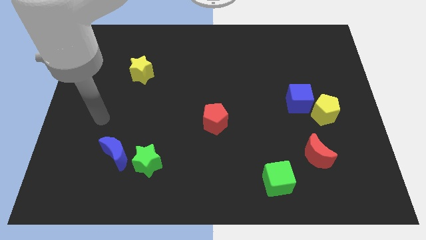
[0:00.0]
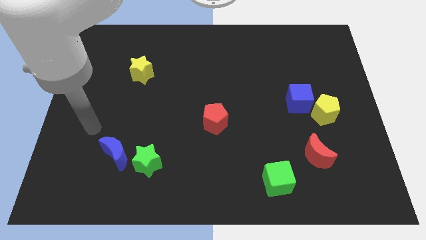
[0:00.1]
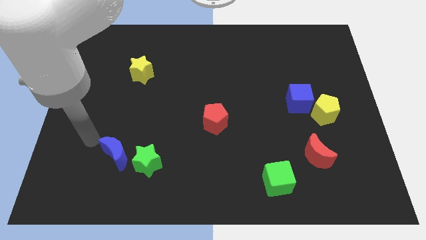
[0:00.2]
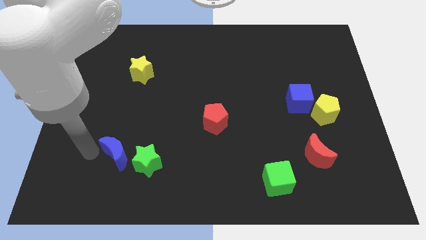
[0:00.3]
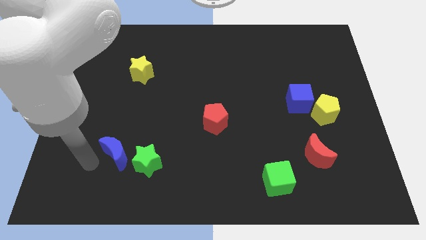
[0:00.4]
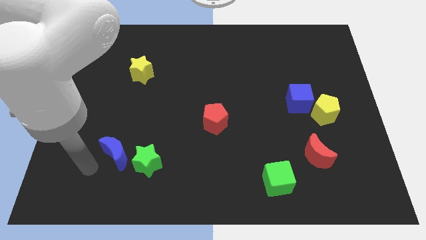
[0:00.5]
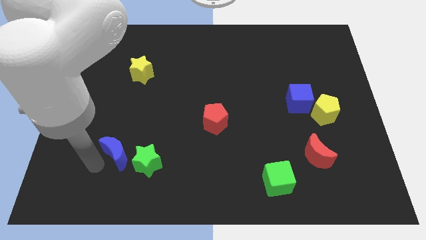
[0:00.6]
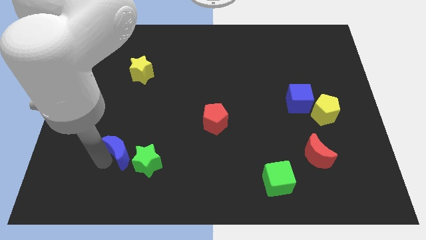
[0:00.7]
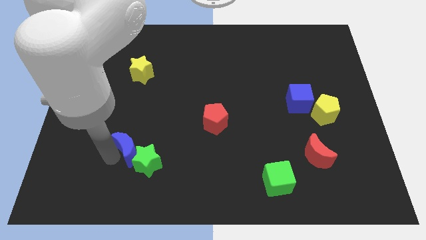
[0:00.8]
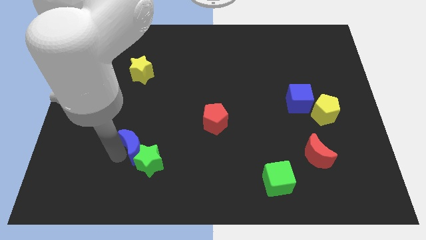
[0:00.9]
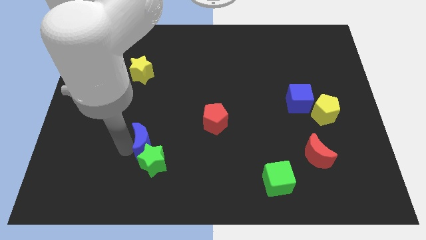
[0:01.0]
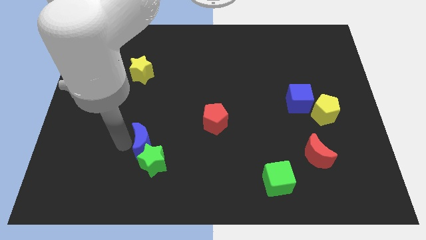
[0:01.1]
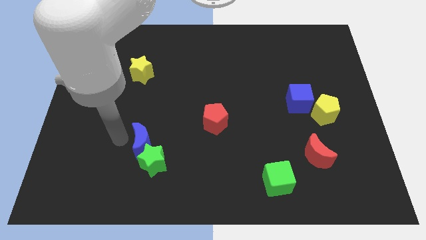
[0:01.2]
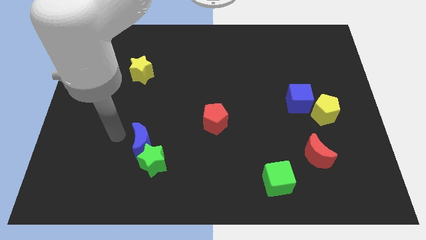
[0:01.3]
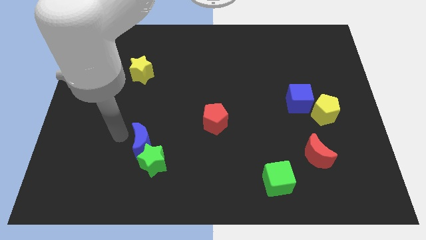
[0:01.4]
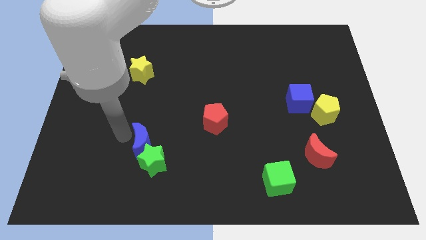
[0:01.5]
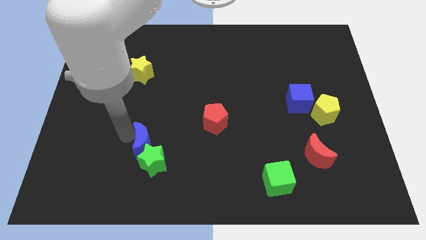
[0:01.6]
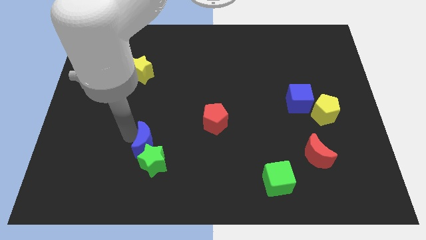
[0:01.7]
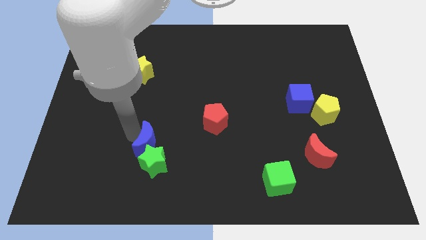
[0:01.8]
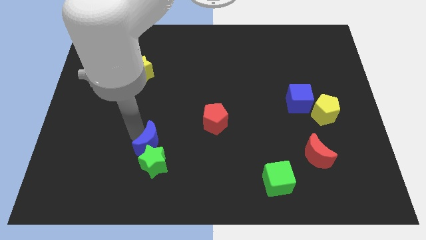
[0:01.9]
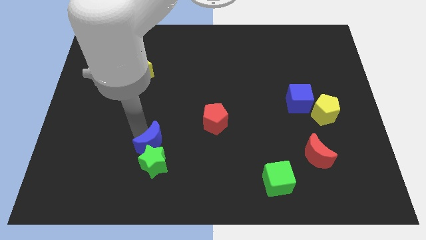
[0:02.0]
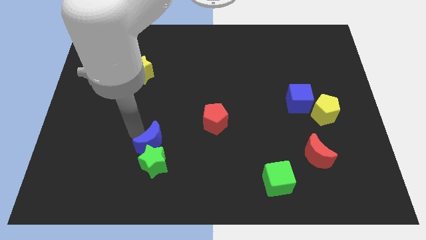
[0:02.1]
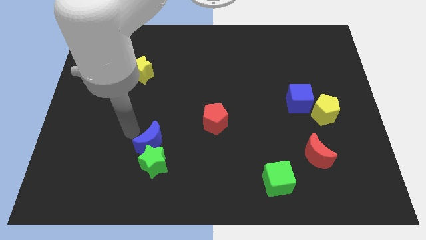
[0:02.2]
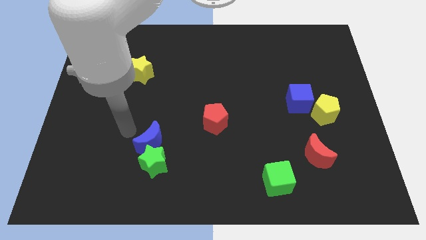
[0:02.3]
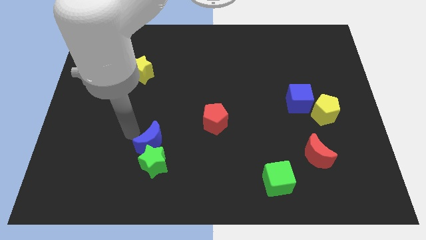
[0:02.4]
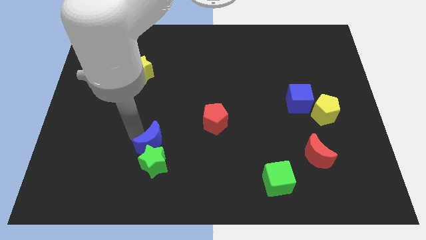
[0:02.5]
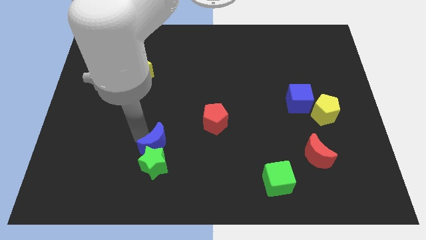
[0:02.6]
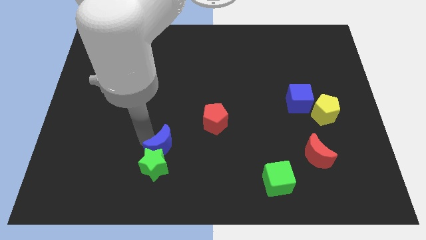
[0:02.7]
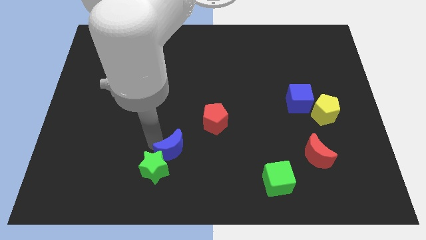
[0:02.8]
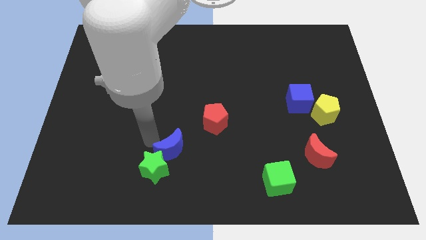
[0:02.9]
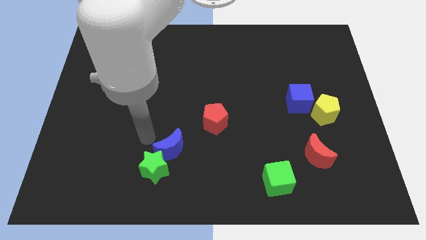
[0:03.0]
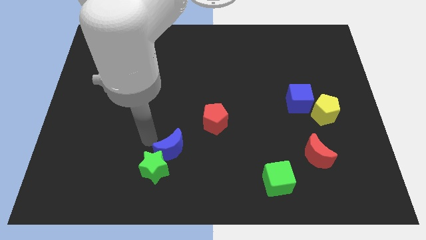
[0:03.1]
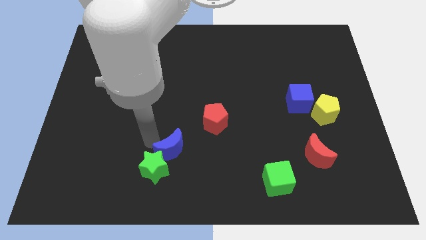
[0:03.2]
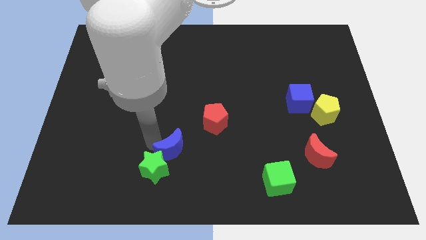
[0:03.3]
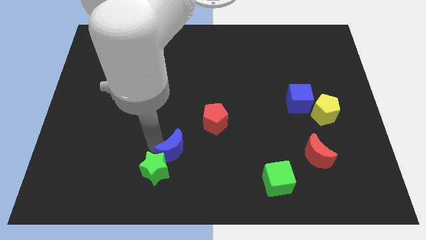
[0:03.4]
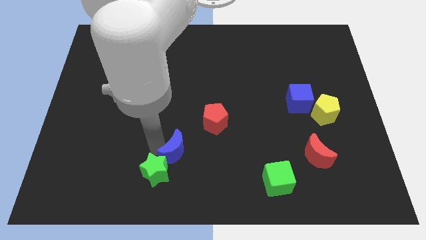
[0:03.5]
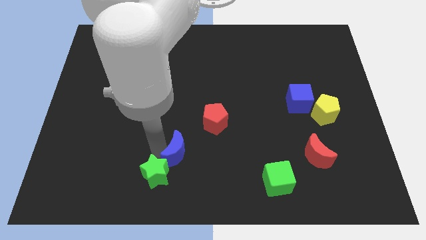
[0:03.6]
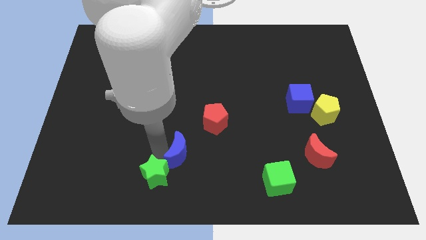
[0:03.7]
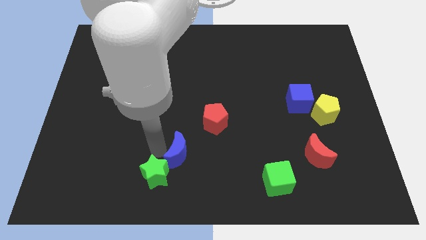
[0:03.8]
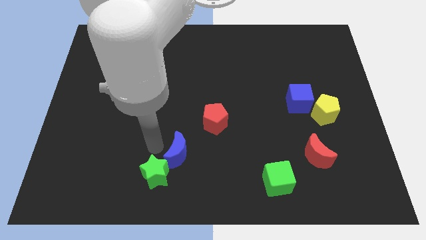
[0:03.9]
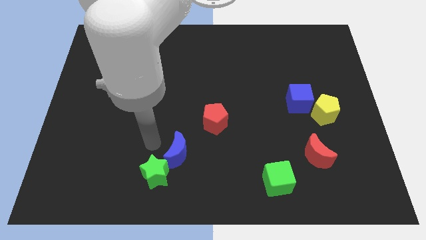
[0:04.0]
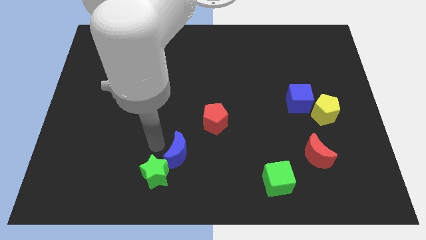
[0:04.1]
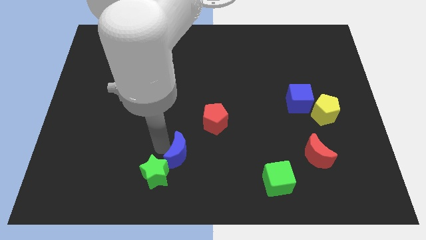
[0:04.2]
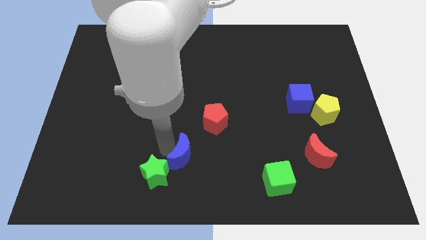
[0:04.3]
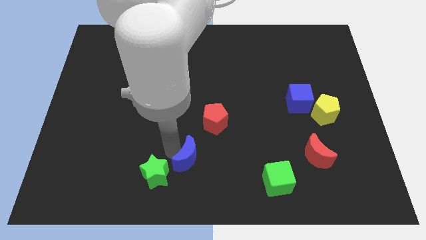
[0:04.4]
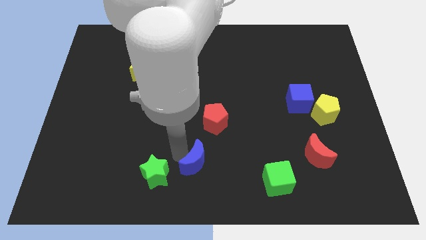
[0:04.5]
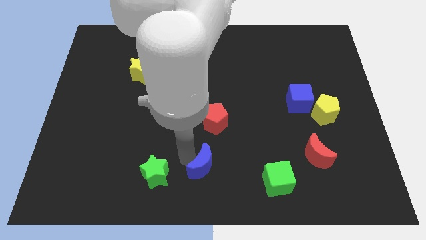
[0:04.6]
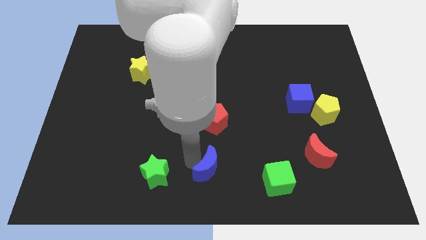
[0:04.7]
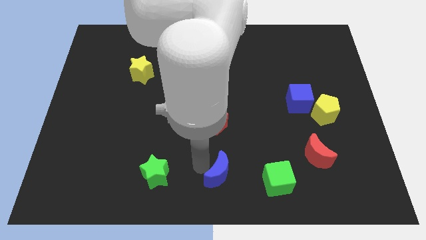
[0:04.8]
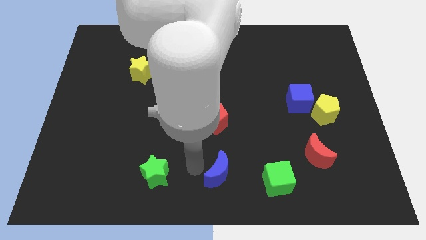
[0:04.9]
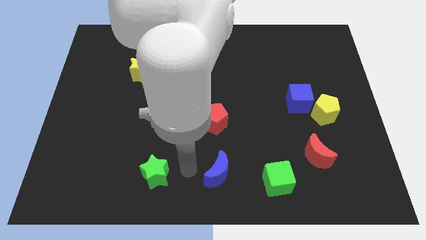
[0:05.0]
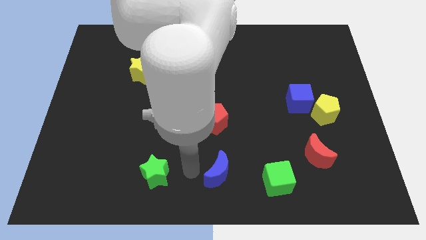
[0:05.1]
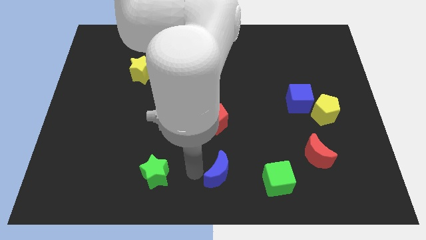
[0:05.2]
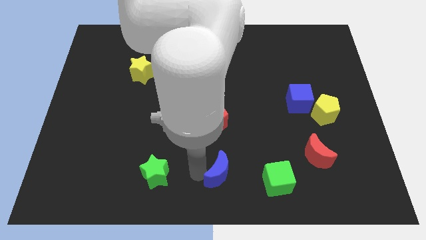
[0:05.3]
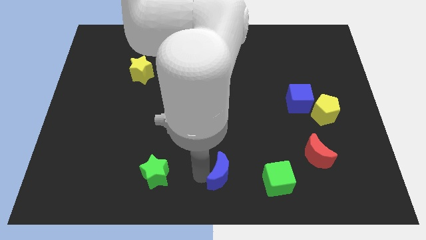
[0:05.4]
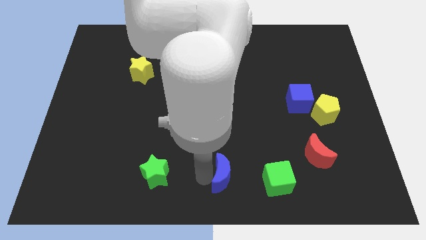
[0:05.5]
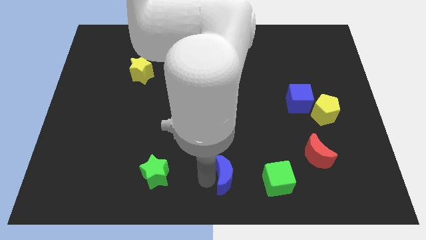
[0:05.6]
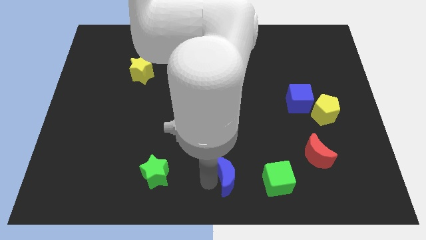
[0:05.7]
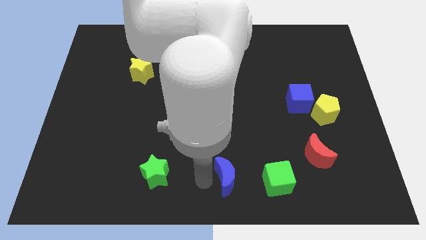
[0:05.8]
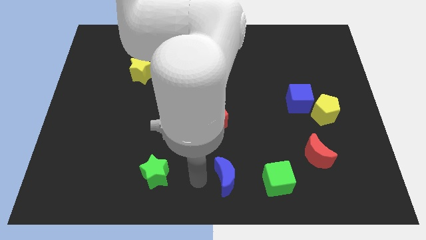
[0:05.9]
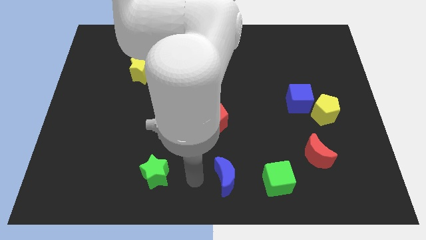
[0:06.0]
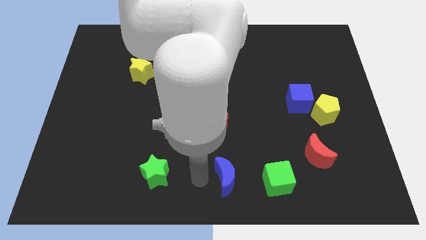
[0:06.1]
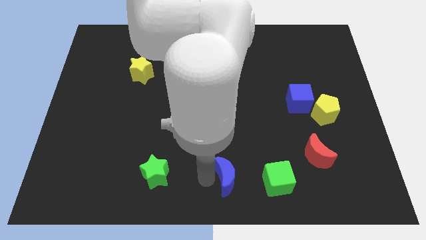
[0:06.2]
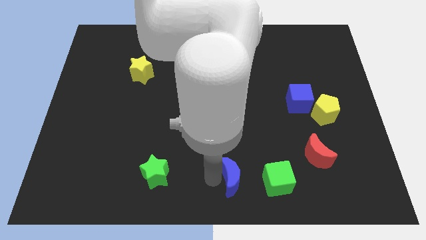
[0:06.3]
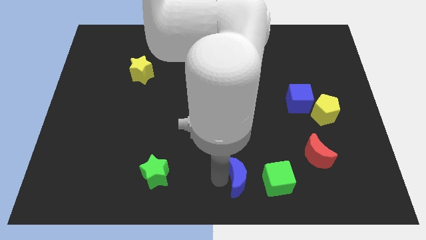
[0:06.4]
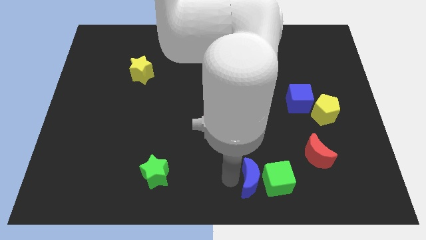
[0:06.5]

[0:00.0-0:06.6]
put the blue moon next to the green cube

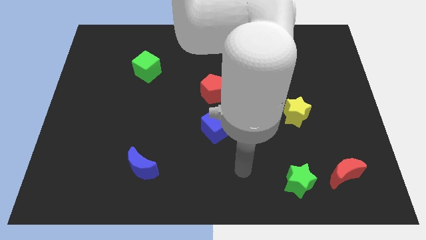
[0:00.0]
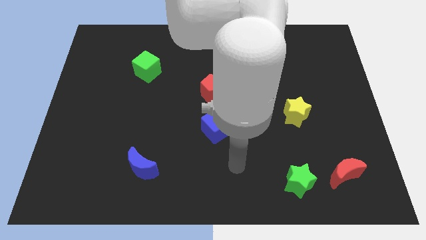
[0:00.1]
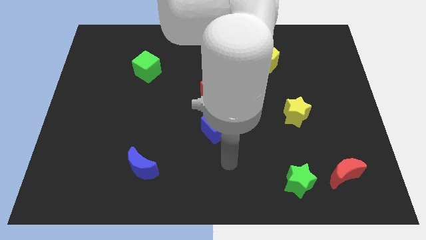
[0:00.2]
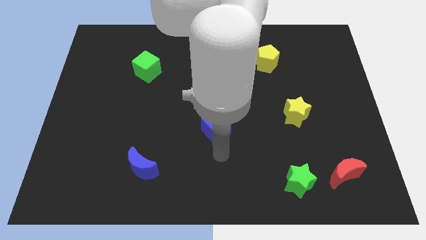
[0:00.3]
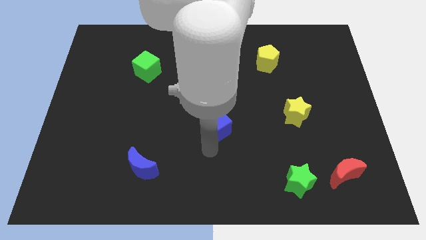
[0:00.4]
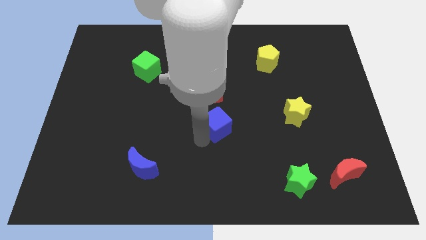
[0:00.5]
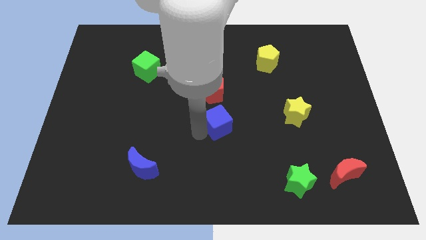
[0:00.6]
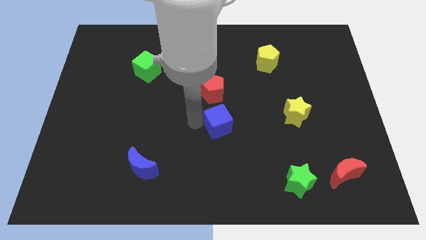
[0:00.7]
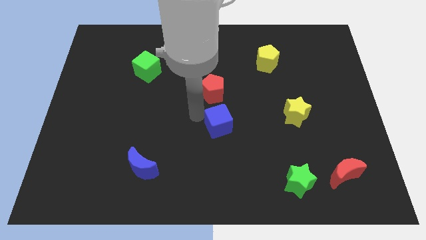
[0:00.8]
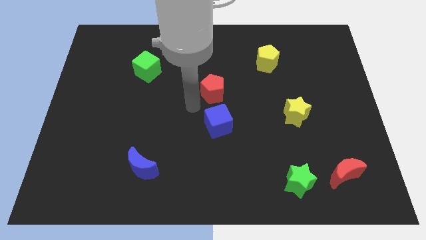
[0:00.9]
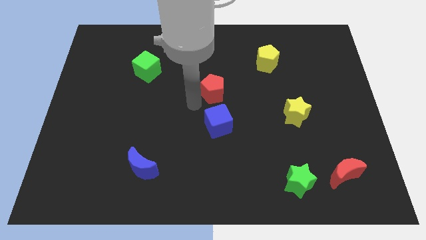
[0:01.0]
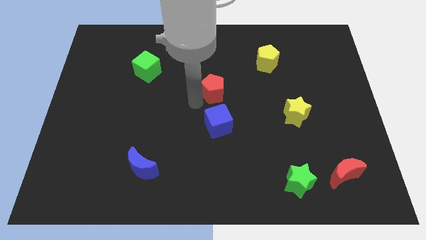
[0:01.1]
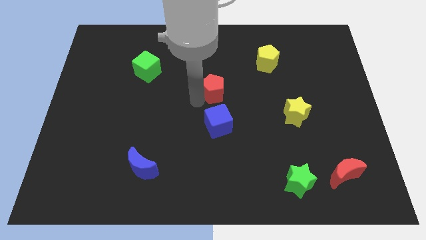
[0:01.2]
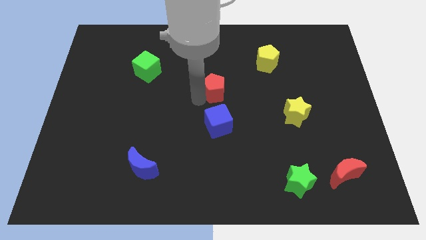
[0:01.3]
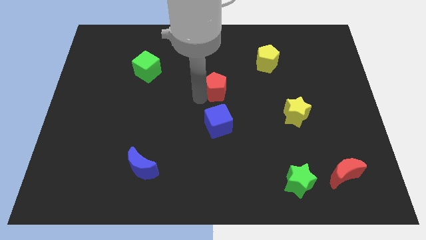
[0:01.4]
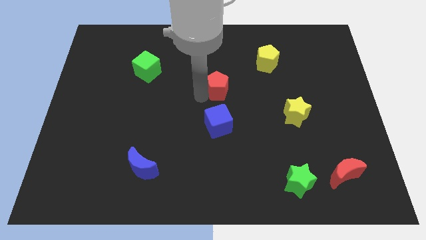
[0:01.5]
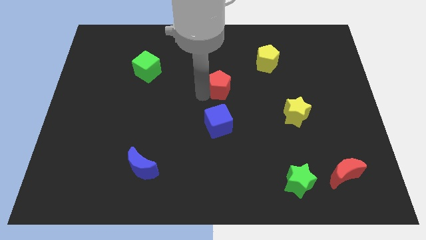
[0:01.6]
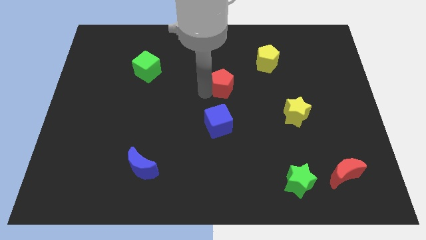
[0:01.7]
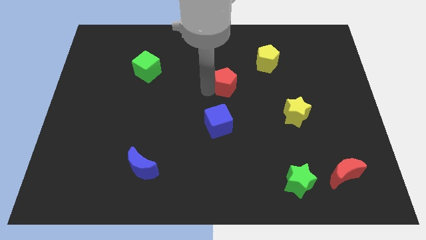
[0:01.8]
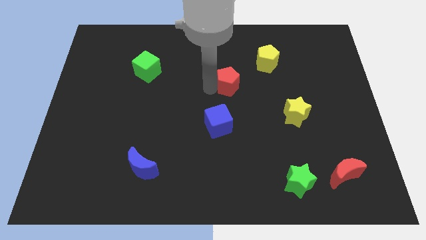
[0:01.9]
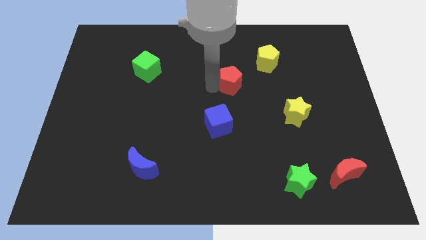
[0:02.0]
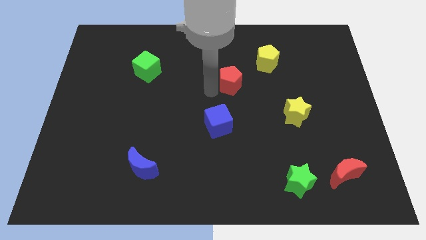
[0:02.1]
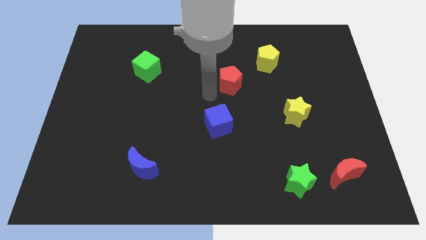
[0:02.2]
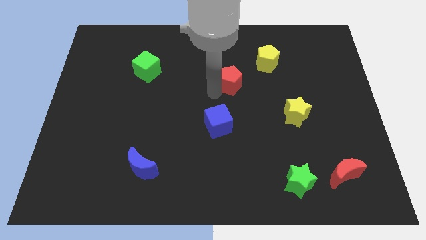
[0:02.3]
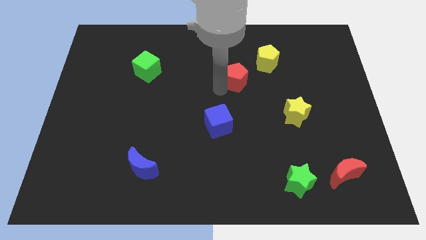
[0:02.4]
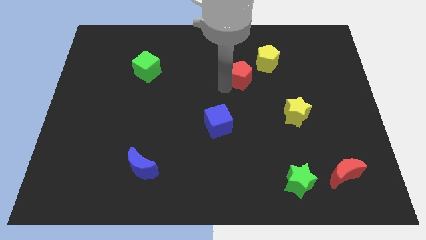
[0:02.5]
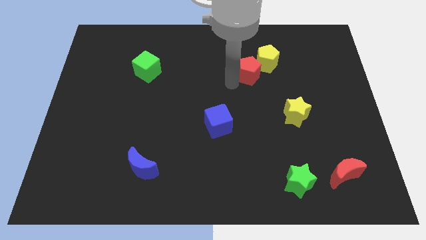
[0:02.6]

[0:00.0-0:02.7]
move the red pentagon close to the yellow pentagon
